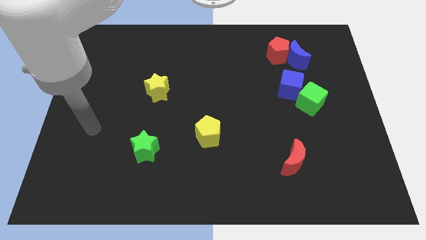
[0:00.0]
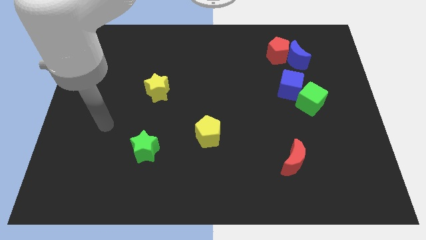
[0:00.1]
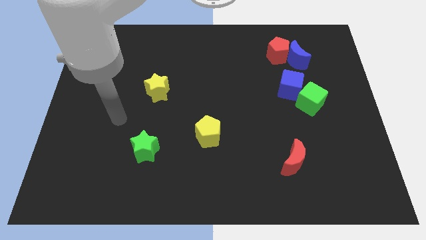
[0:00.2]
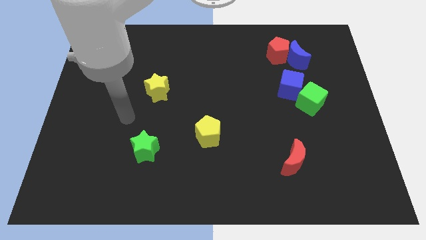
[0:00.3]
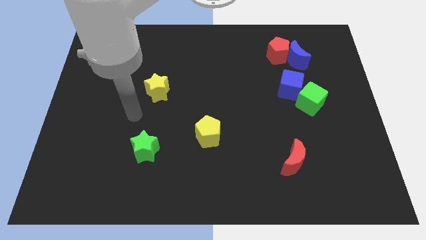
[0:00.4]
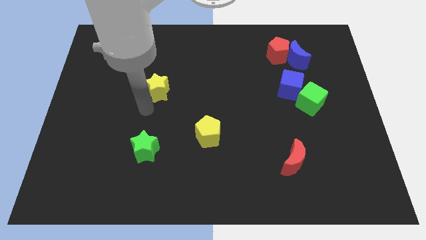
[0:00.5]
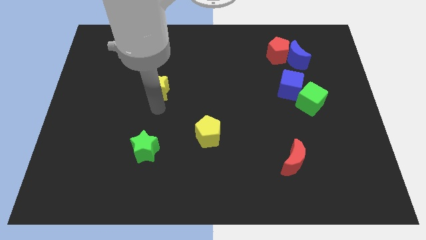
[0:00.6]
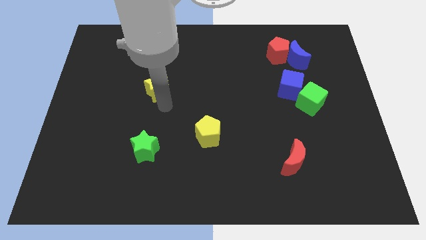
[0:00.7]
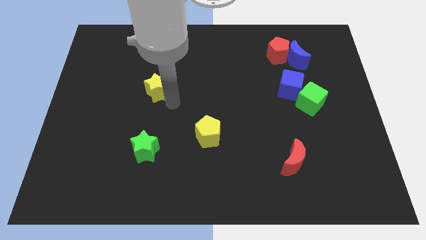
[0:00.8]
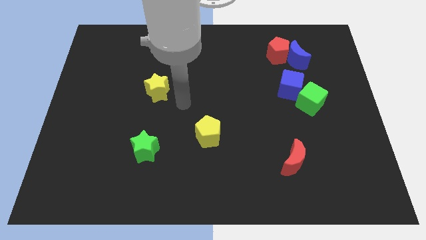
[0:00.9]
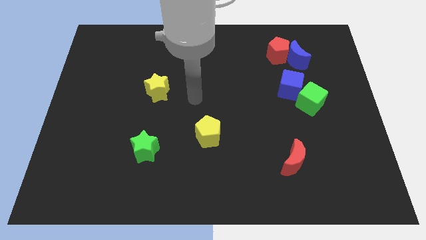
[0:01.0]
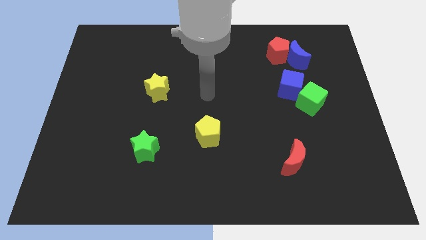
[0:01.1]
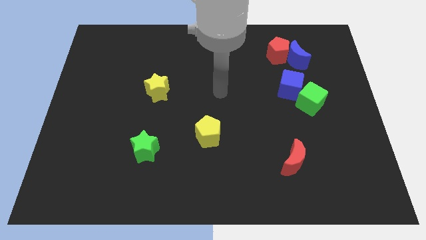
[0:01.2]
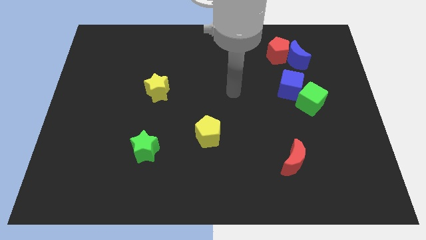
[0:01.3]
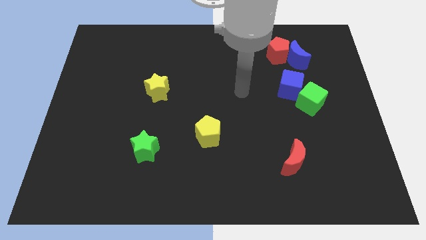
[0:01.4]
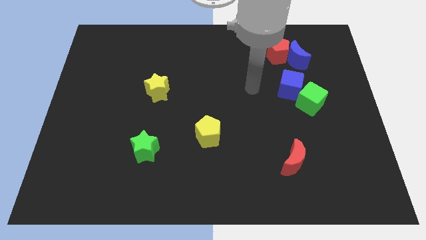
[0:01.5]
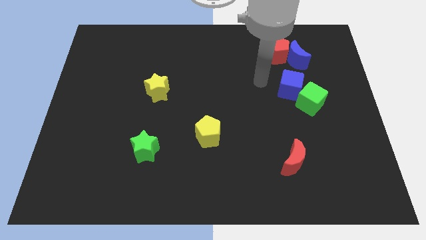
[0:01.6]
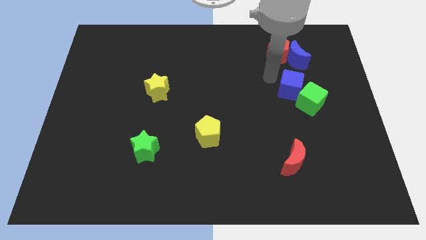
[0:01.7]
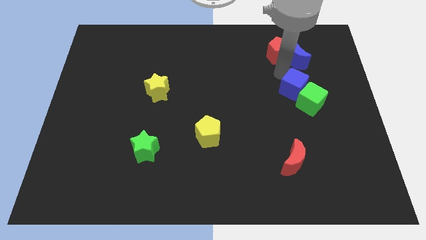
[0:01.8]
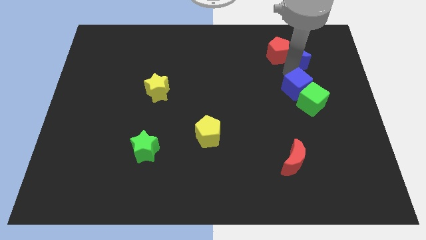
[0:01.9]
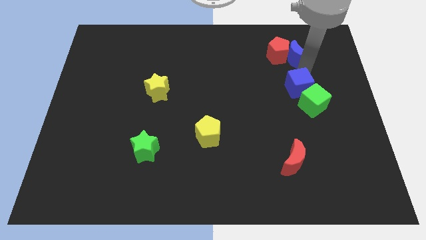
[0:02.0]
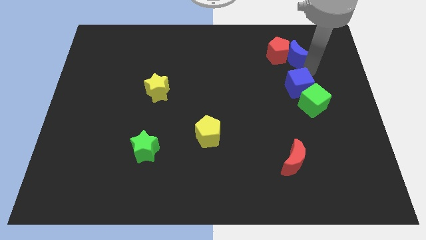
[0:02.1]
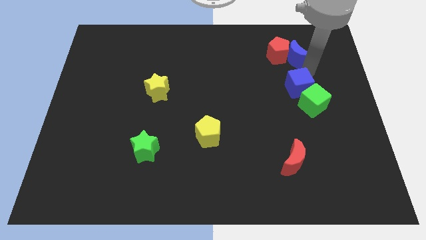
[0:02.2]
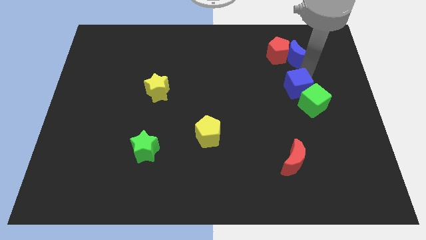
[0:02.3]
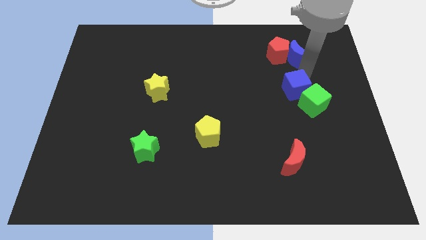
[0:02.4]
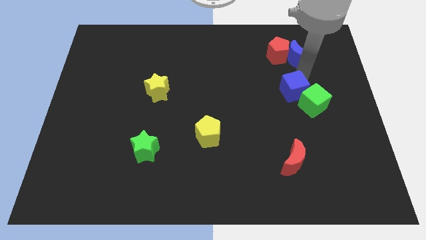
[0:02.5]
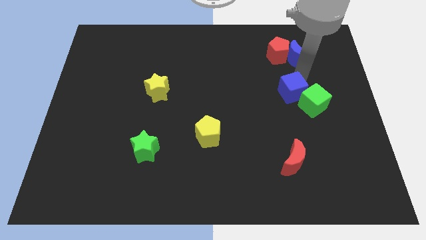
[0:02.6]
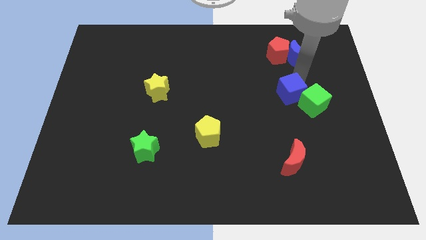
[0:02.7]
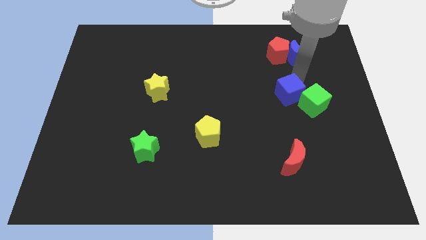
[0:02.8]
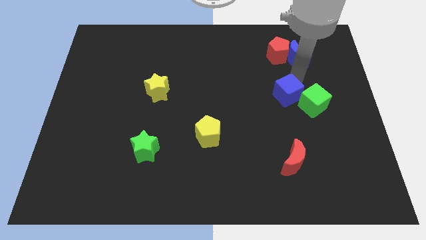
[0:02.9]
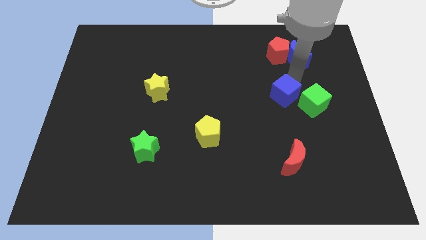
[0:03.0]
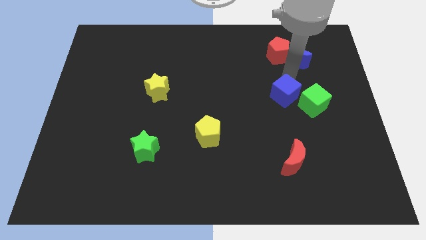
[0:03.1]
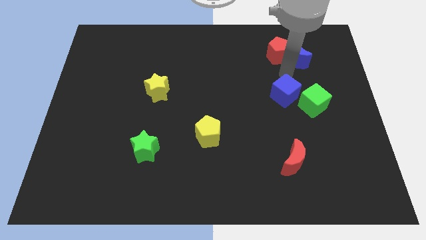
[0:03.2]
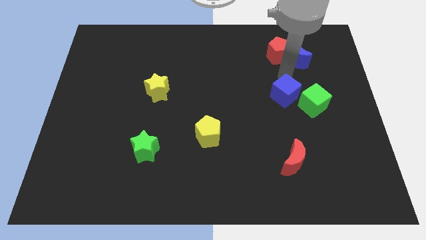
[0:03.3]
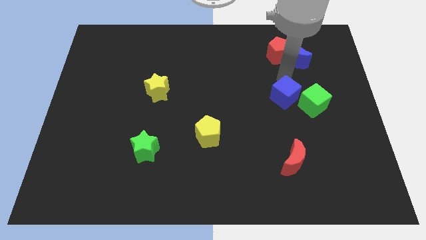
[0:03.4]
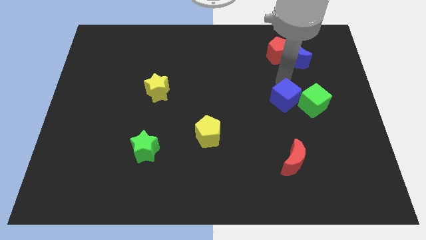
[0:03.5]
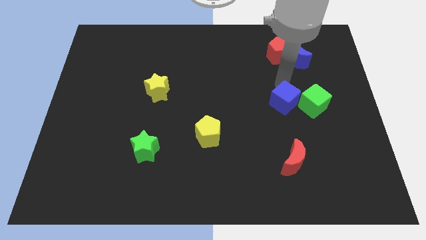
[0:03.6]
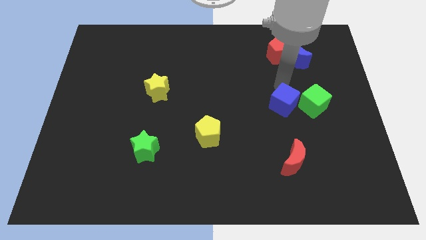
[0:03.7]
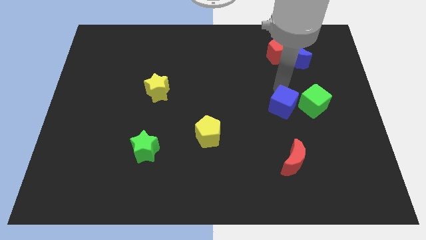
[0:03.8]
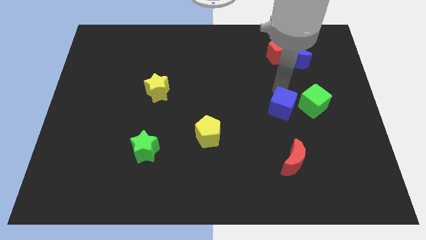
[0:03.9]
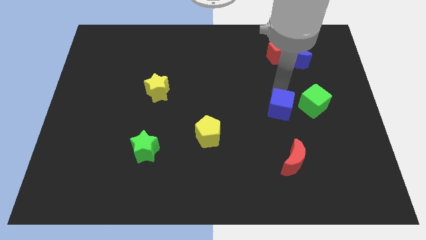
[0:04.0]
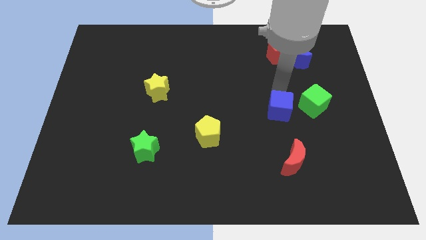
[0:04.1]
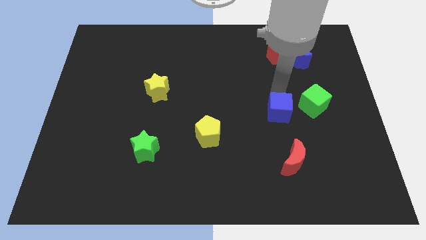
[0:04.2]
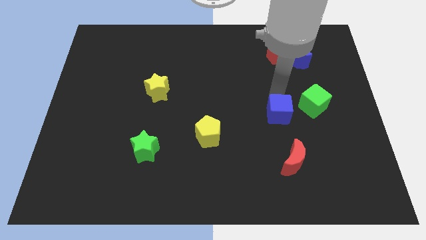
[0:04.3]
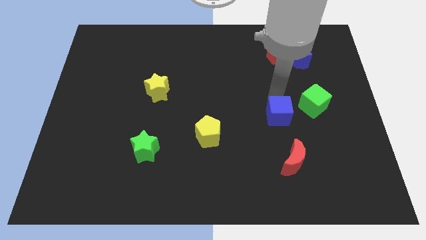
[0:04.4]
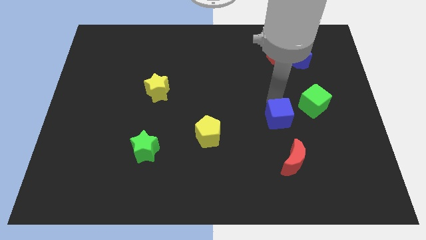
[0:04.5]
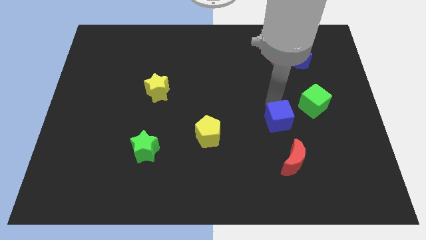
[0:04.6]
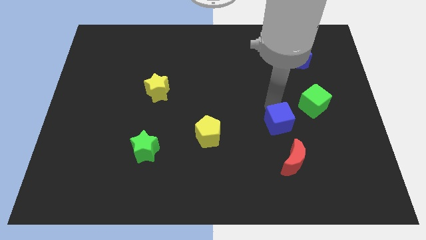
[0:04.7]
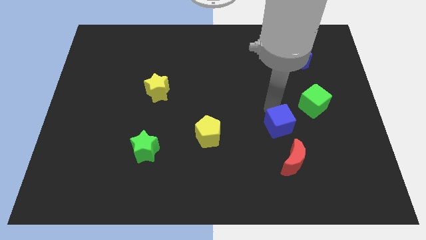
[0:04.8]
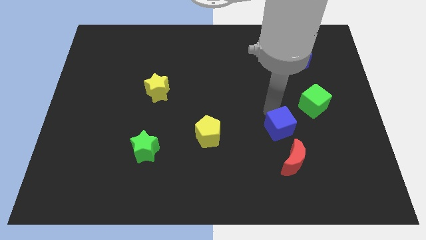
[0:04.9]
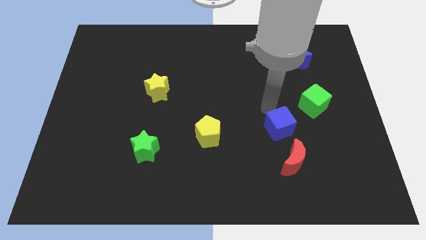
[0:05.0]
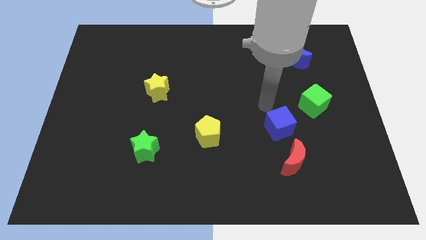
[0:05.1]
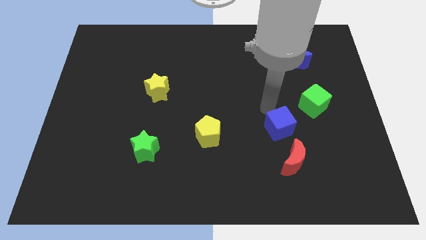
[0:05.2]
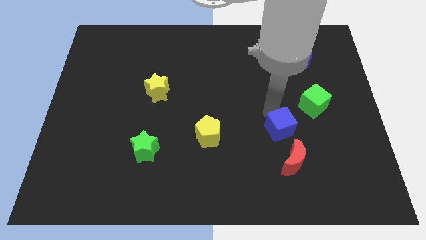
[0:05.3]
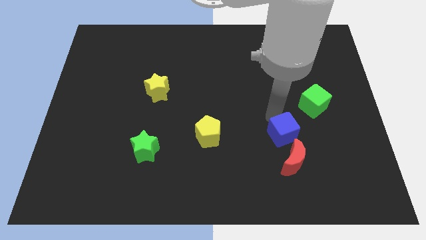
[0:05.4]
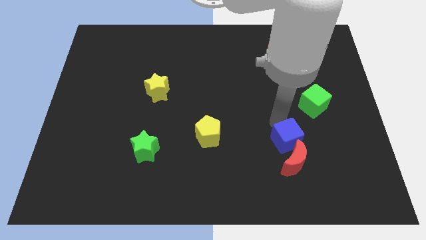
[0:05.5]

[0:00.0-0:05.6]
put the blue cube next to the red moon

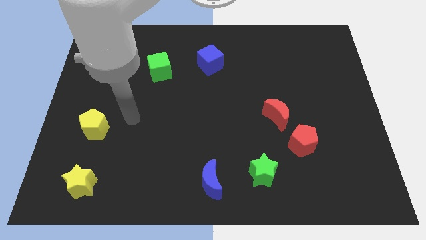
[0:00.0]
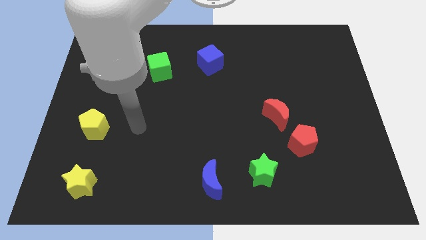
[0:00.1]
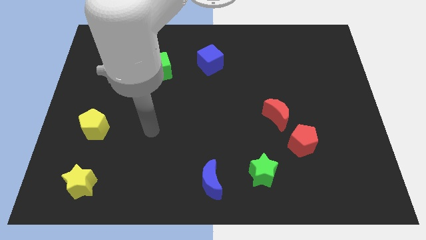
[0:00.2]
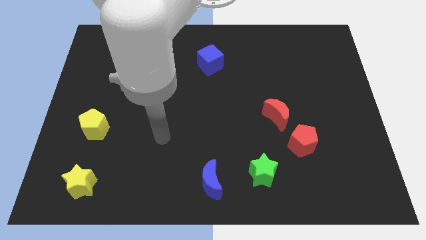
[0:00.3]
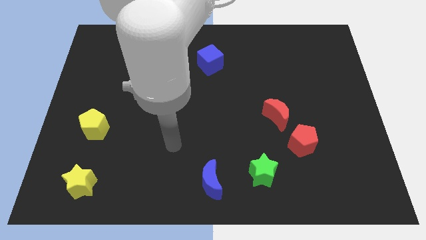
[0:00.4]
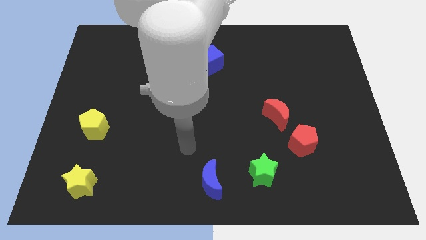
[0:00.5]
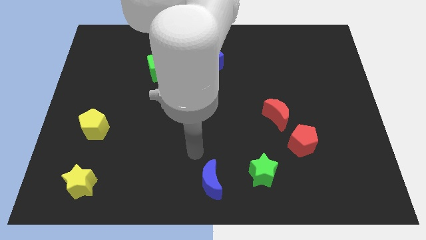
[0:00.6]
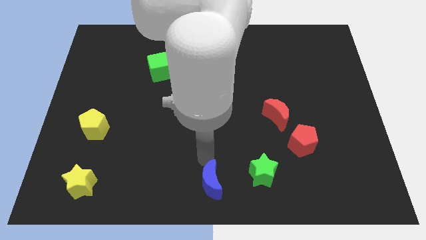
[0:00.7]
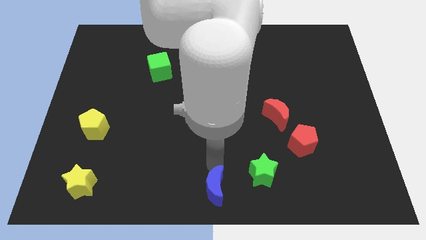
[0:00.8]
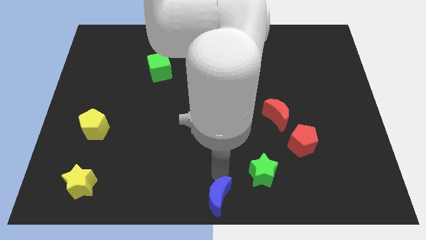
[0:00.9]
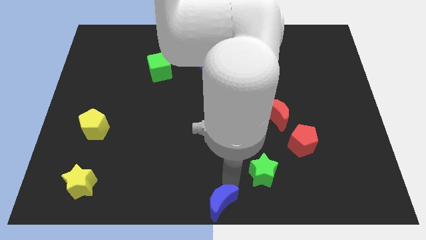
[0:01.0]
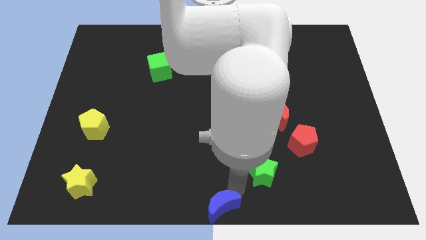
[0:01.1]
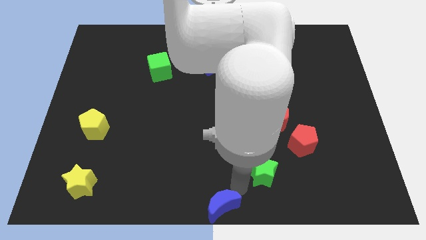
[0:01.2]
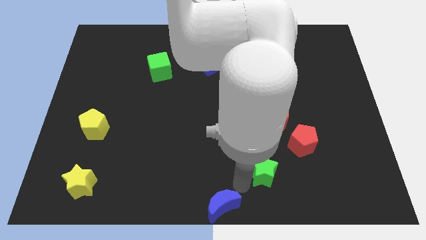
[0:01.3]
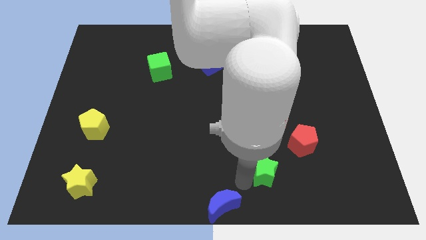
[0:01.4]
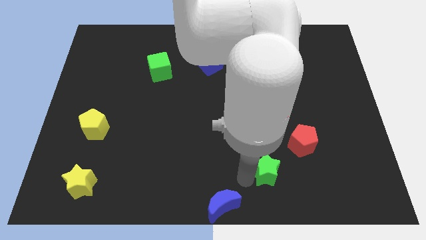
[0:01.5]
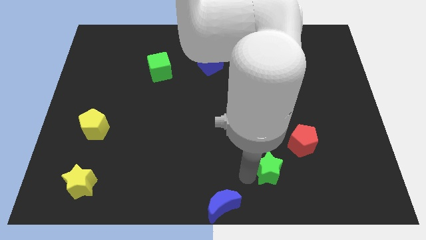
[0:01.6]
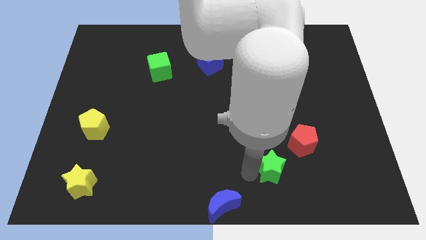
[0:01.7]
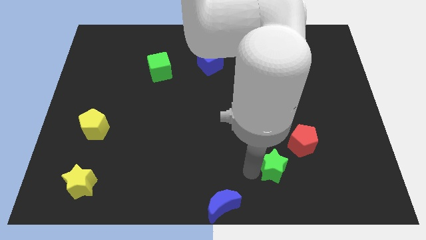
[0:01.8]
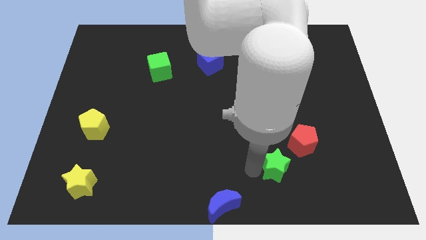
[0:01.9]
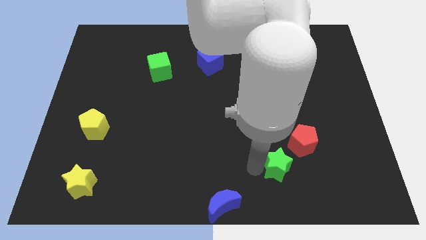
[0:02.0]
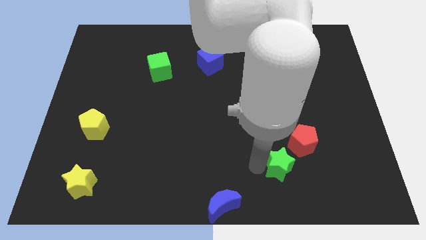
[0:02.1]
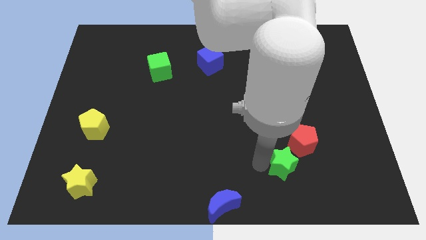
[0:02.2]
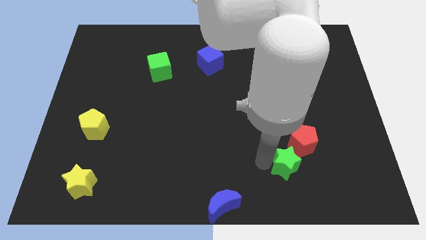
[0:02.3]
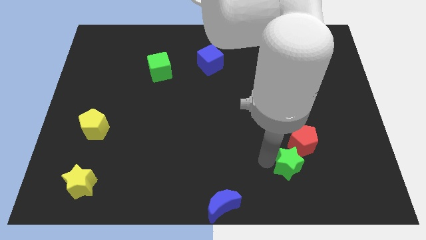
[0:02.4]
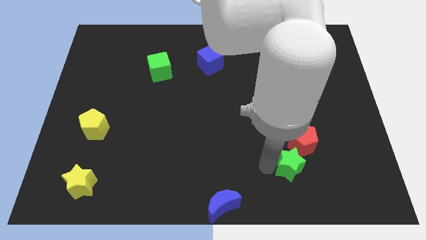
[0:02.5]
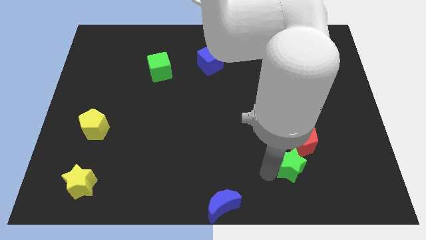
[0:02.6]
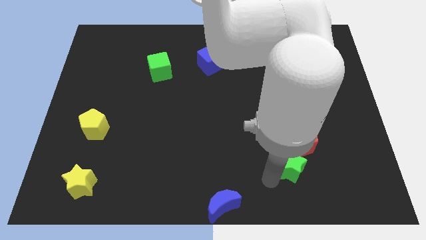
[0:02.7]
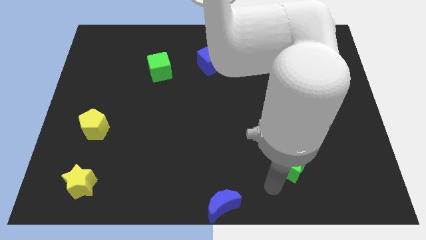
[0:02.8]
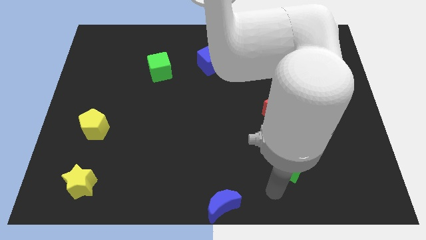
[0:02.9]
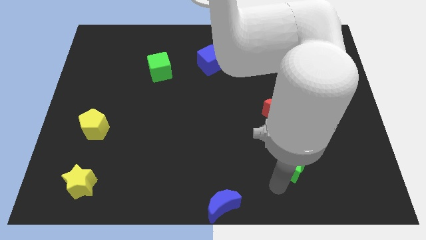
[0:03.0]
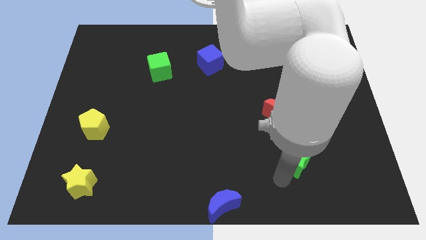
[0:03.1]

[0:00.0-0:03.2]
put the green star close to the red pentagon
